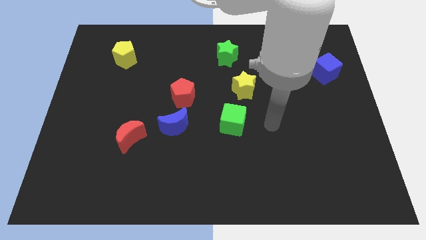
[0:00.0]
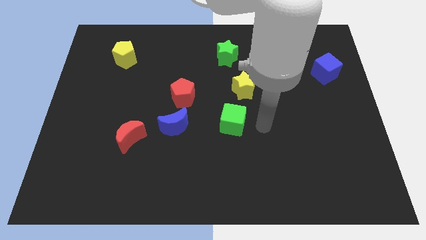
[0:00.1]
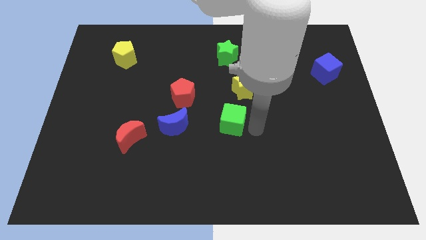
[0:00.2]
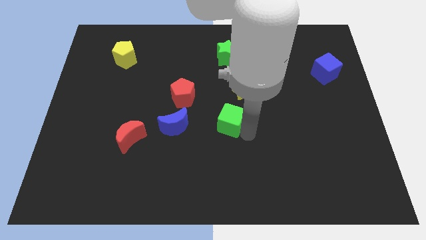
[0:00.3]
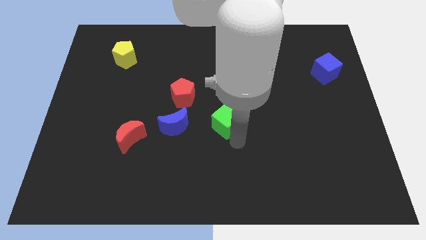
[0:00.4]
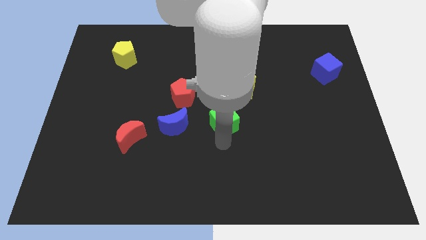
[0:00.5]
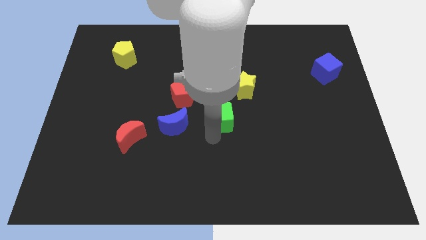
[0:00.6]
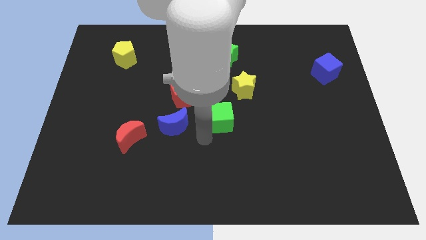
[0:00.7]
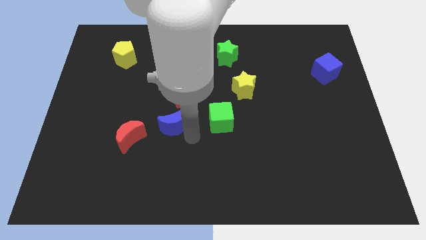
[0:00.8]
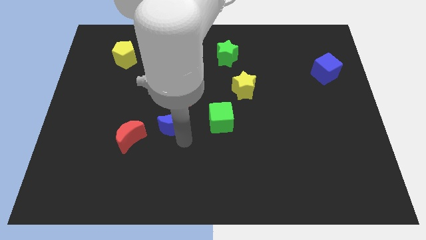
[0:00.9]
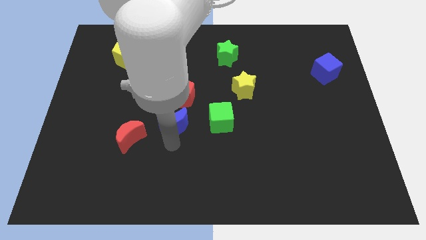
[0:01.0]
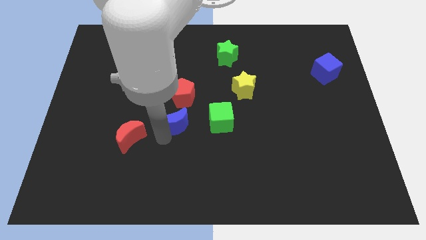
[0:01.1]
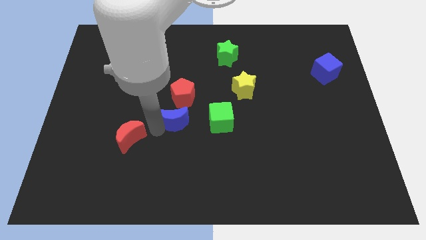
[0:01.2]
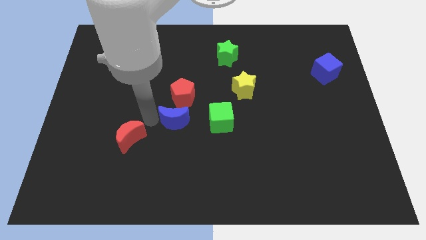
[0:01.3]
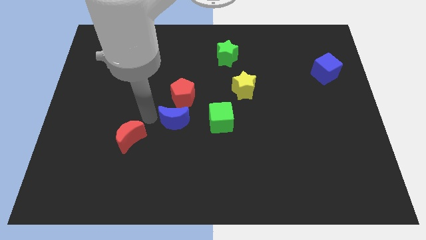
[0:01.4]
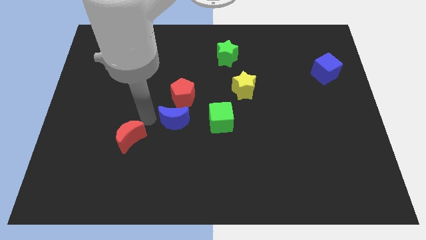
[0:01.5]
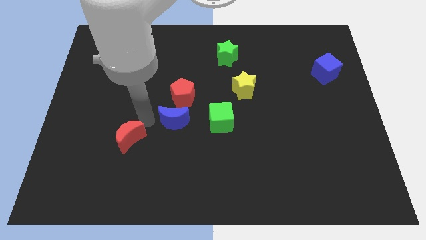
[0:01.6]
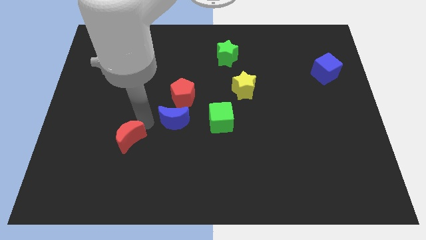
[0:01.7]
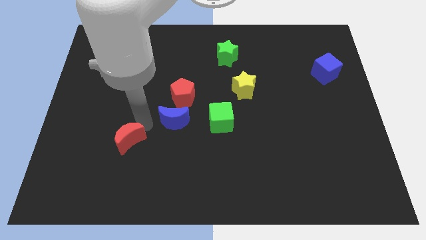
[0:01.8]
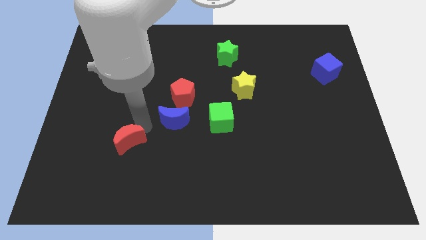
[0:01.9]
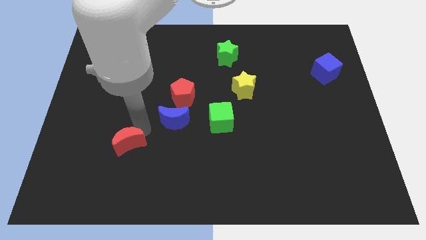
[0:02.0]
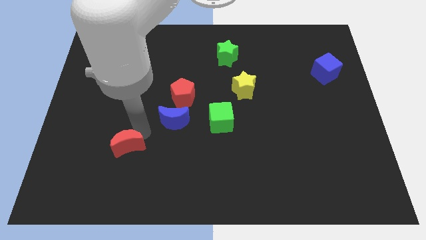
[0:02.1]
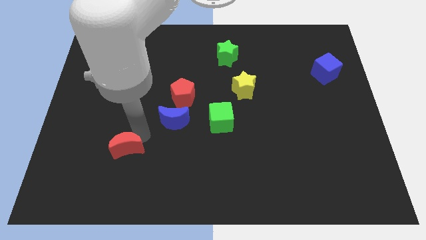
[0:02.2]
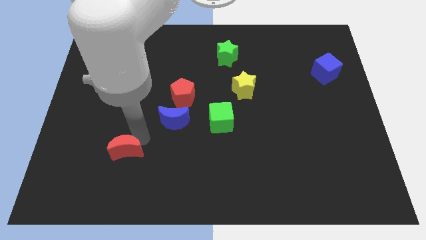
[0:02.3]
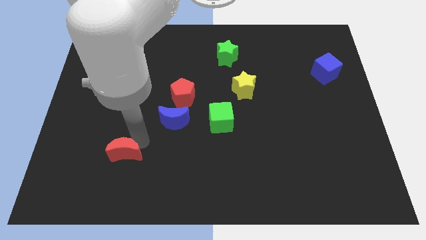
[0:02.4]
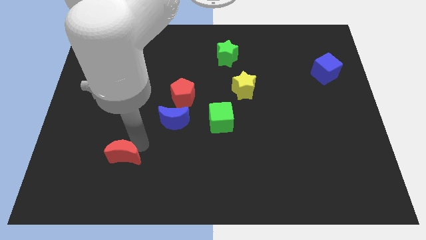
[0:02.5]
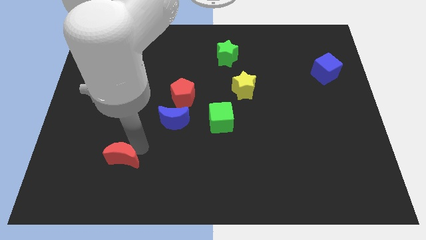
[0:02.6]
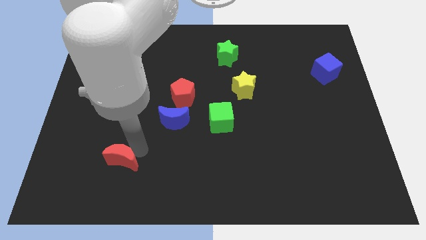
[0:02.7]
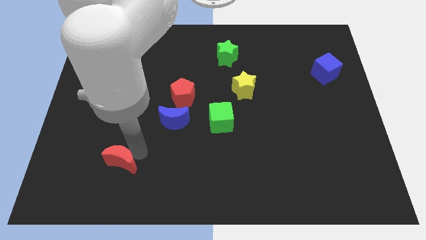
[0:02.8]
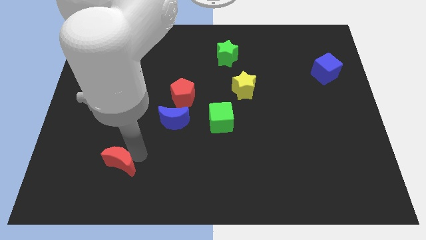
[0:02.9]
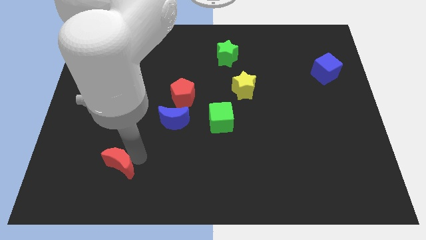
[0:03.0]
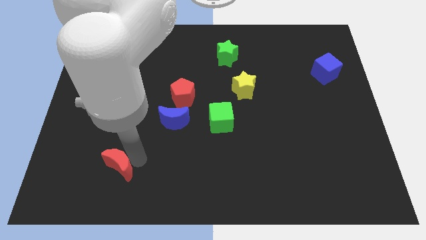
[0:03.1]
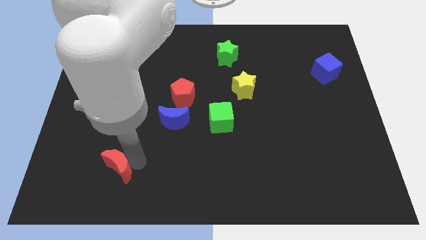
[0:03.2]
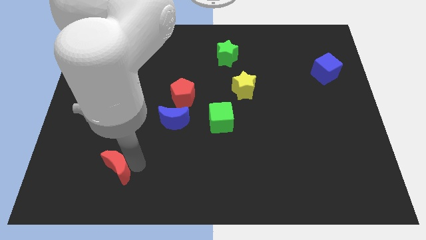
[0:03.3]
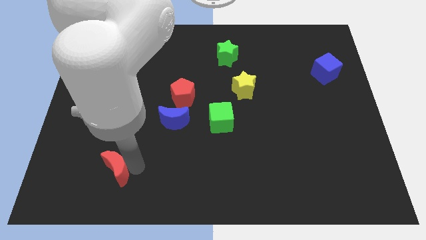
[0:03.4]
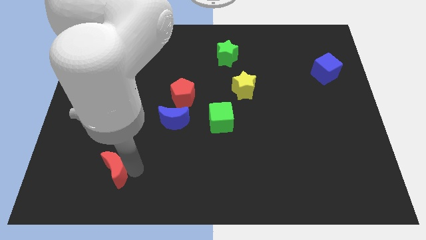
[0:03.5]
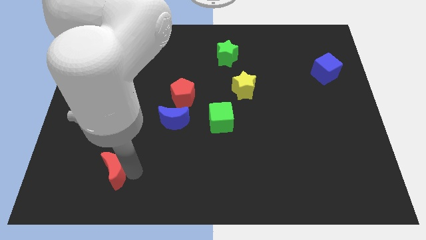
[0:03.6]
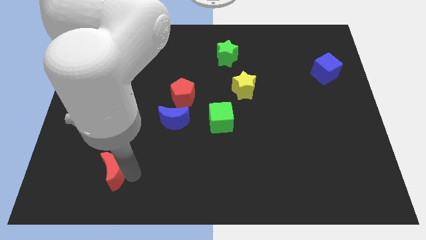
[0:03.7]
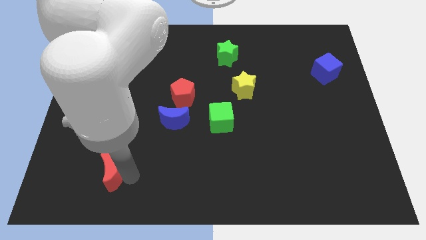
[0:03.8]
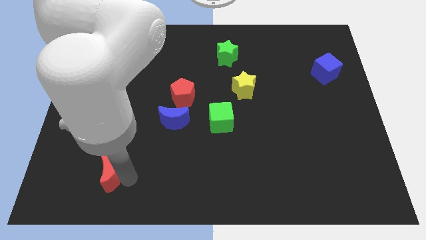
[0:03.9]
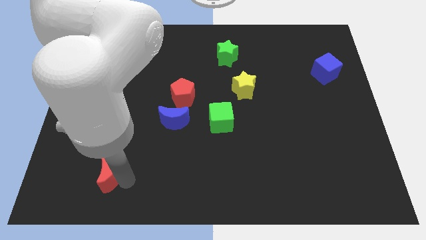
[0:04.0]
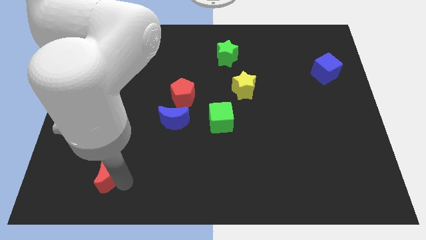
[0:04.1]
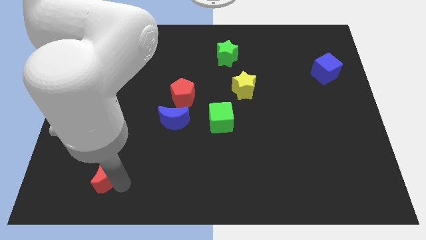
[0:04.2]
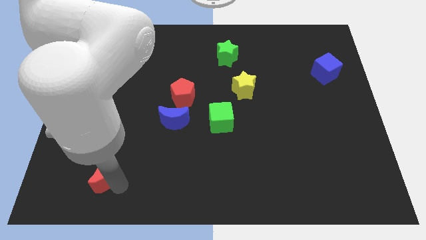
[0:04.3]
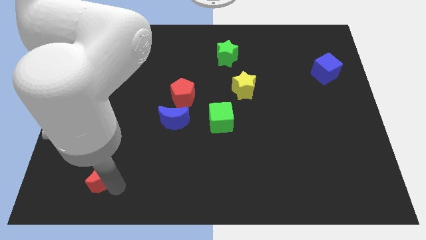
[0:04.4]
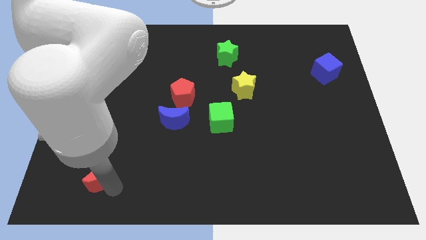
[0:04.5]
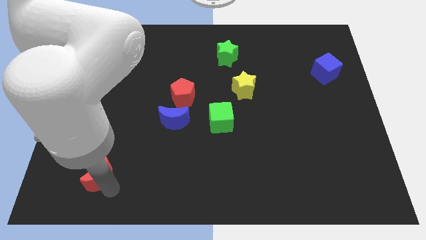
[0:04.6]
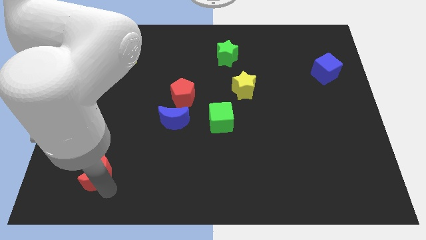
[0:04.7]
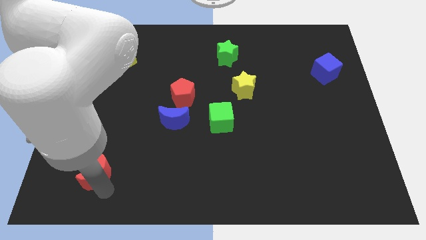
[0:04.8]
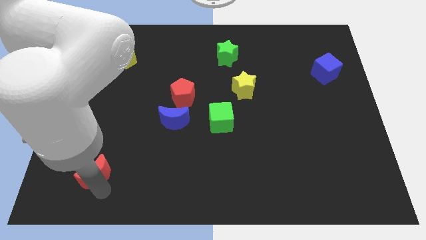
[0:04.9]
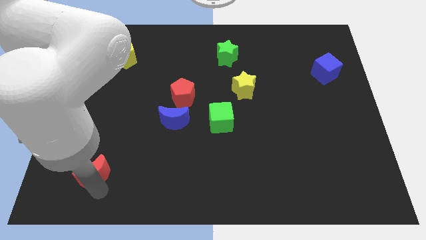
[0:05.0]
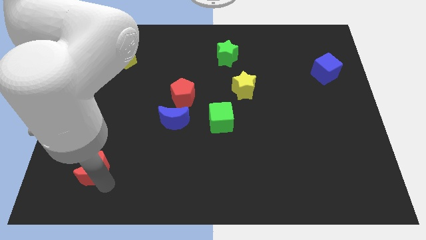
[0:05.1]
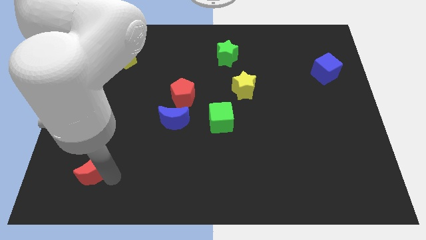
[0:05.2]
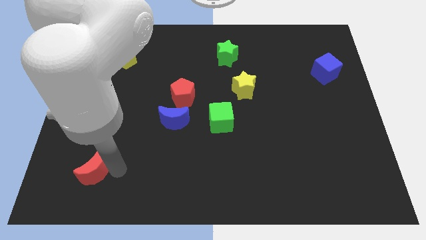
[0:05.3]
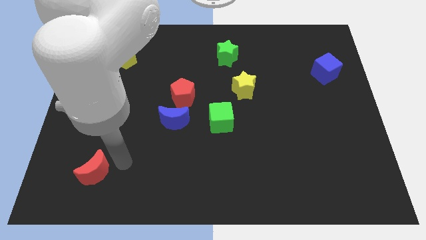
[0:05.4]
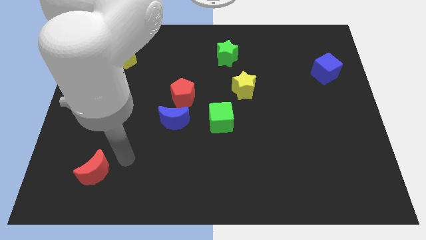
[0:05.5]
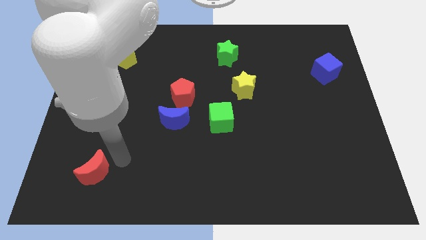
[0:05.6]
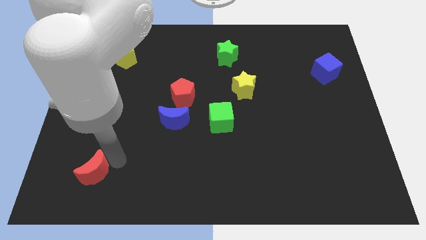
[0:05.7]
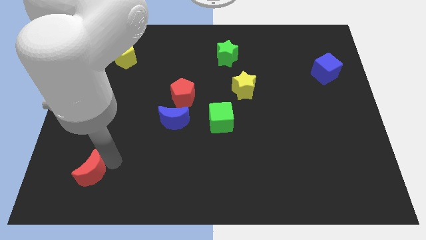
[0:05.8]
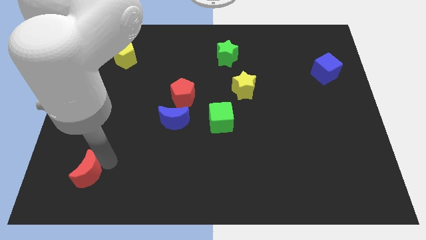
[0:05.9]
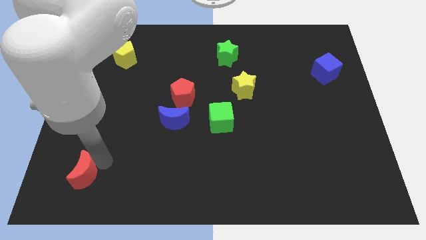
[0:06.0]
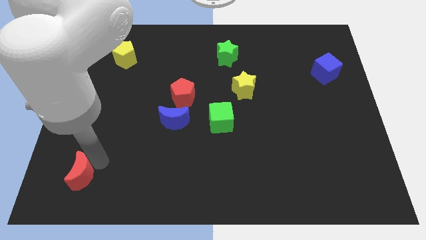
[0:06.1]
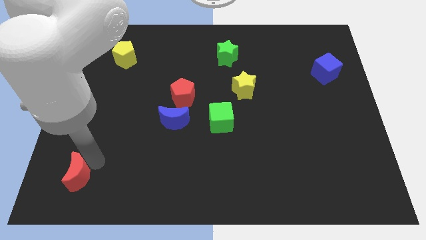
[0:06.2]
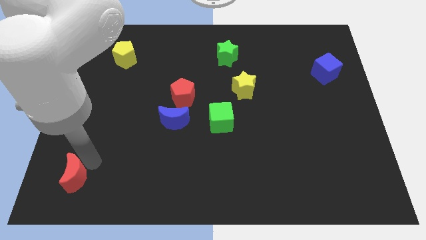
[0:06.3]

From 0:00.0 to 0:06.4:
slide the red moon to the bottom left corner
